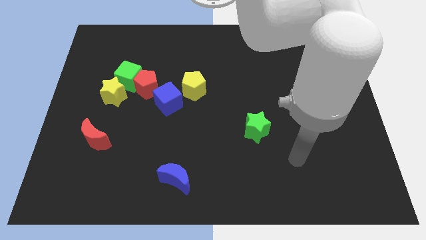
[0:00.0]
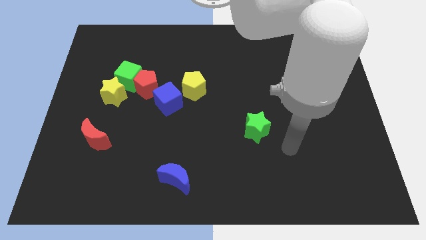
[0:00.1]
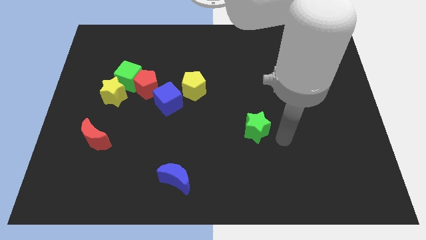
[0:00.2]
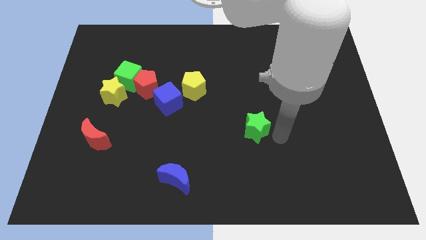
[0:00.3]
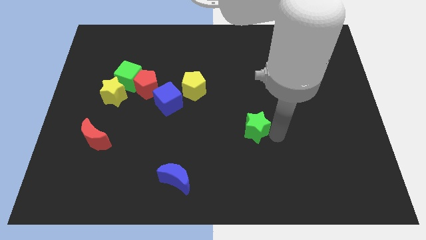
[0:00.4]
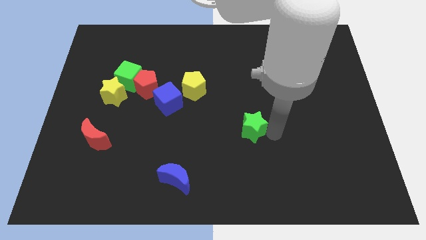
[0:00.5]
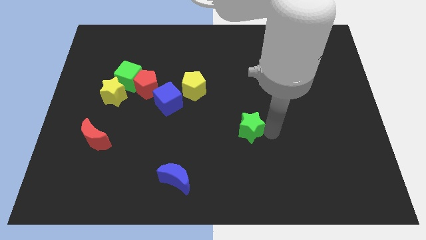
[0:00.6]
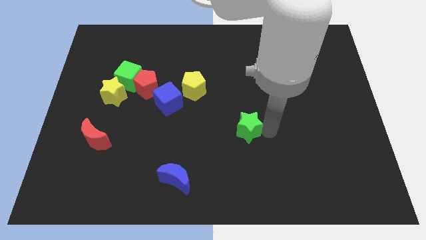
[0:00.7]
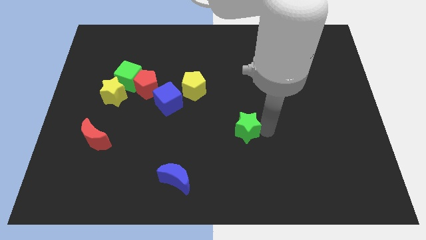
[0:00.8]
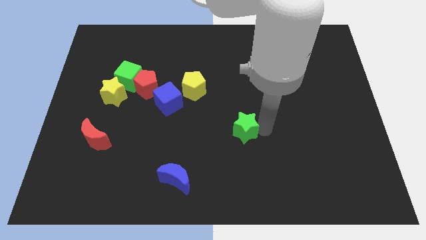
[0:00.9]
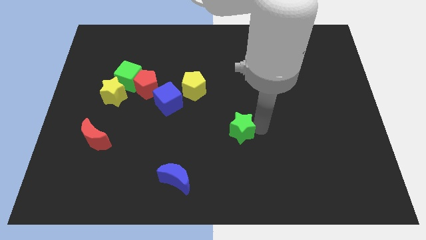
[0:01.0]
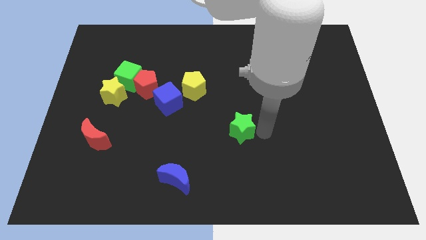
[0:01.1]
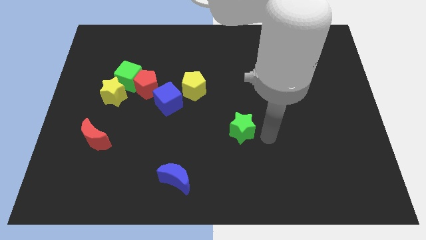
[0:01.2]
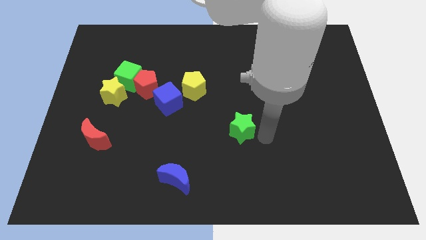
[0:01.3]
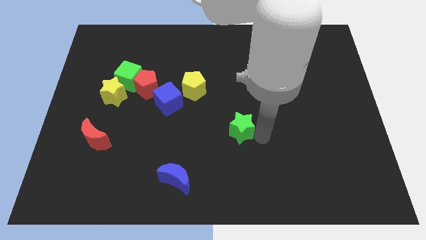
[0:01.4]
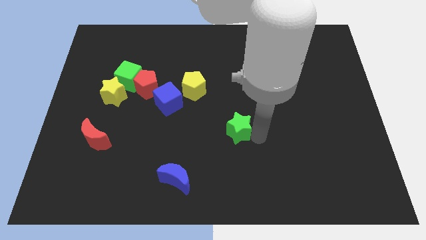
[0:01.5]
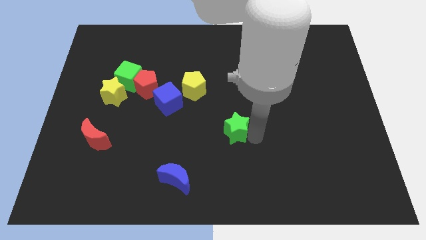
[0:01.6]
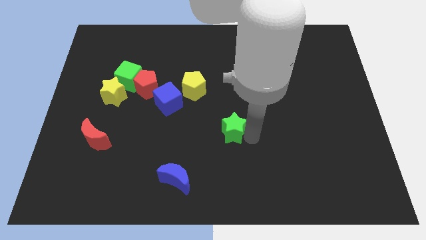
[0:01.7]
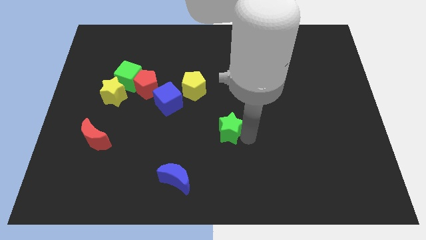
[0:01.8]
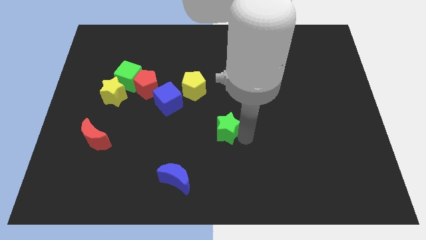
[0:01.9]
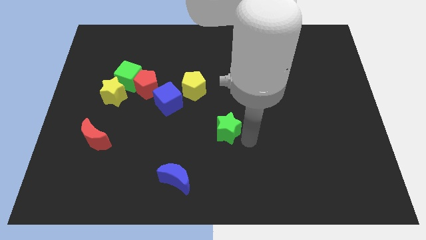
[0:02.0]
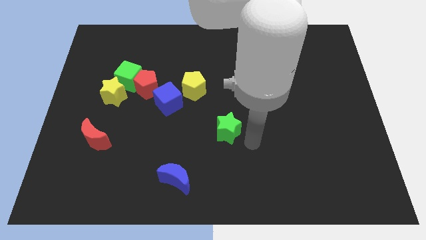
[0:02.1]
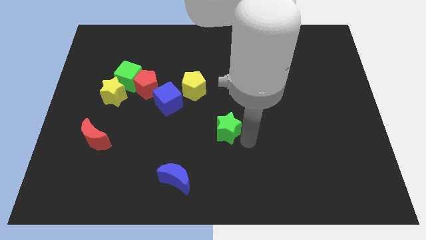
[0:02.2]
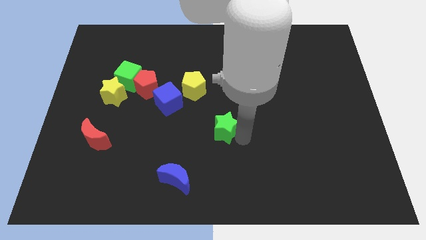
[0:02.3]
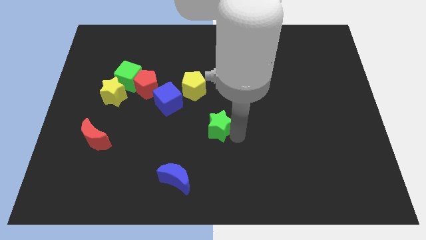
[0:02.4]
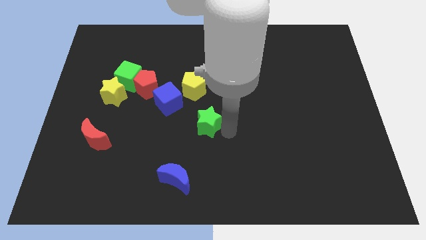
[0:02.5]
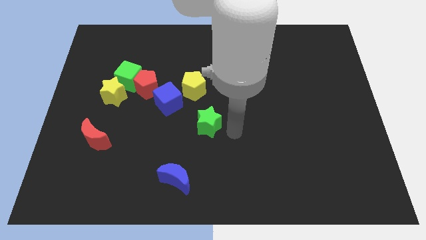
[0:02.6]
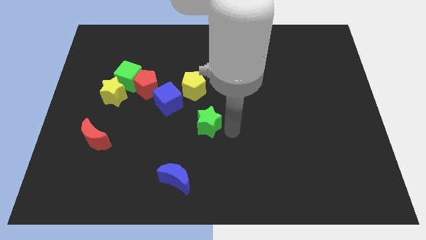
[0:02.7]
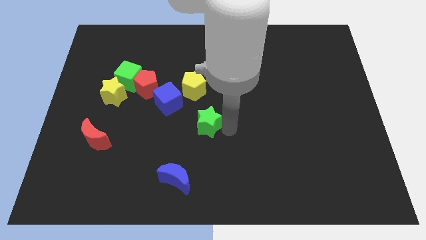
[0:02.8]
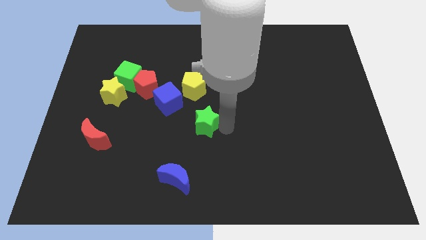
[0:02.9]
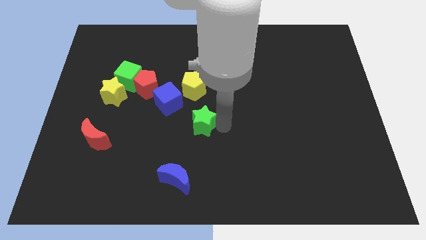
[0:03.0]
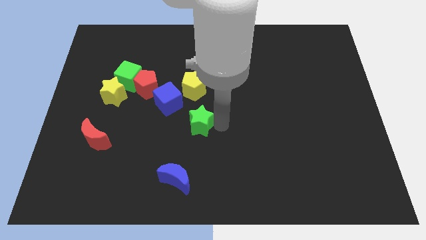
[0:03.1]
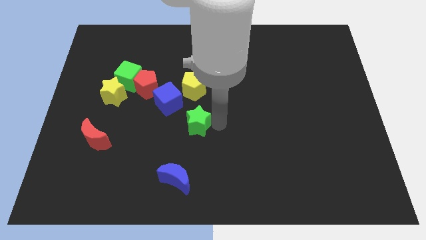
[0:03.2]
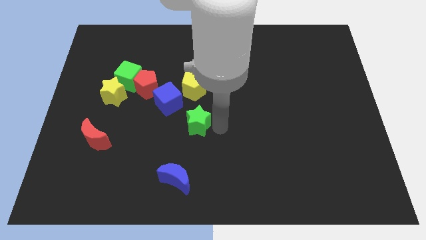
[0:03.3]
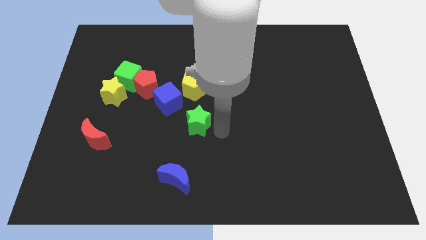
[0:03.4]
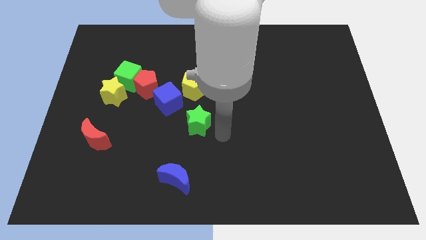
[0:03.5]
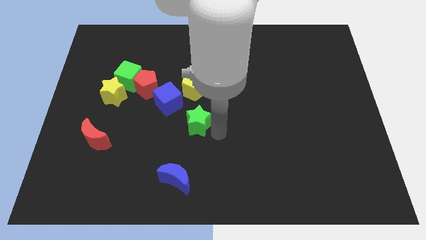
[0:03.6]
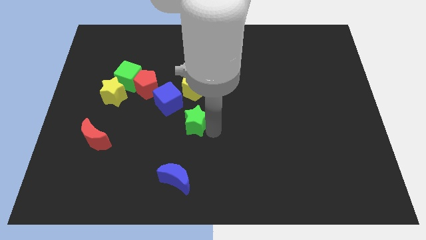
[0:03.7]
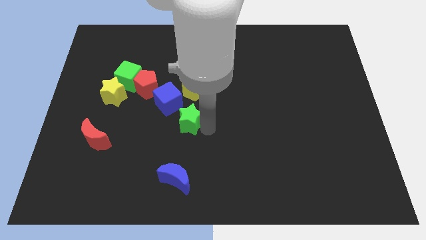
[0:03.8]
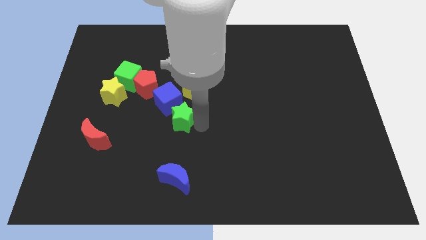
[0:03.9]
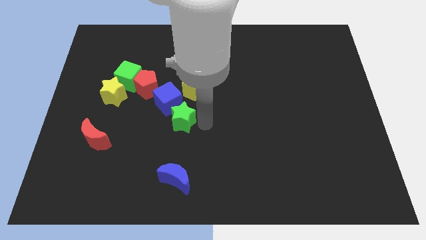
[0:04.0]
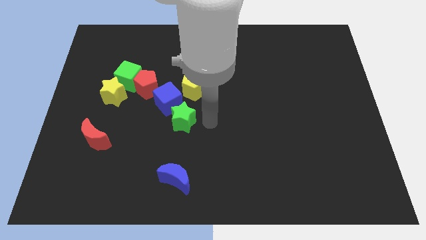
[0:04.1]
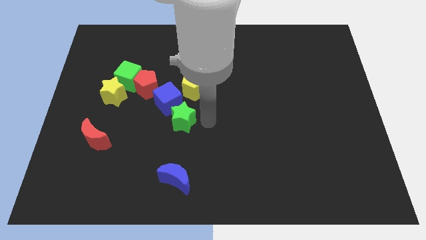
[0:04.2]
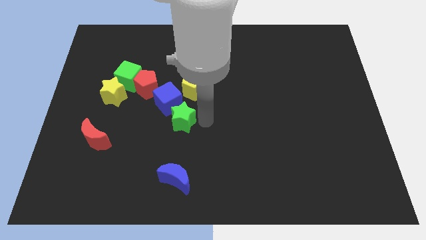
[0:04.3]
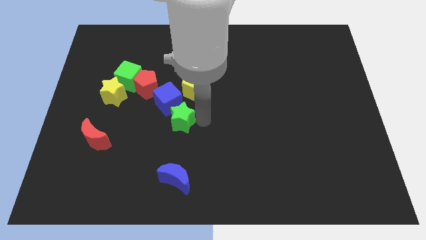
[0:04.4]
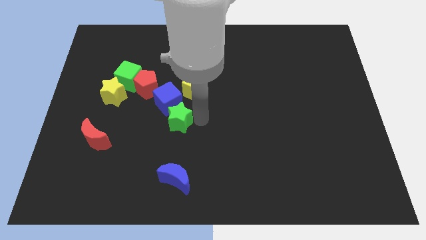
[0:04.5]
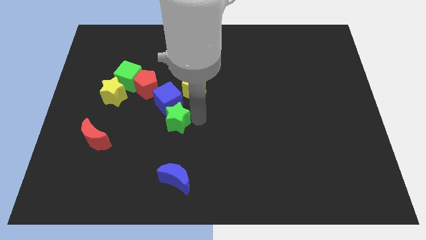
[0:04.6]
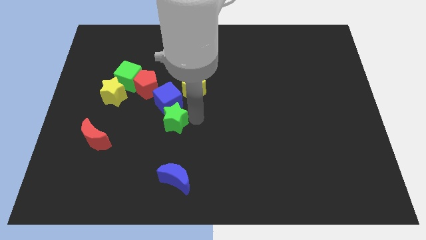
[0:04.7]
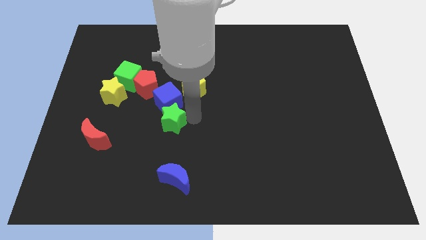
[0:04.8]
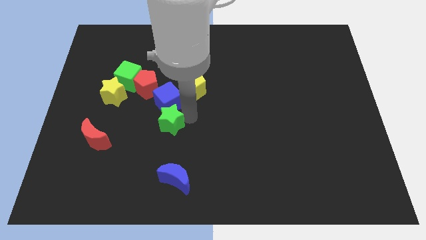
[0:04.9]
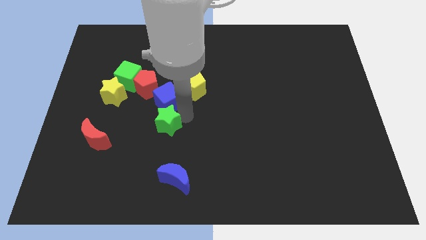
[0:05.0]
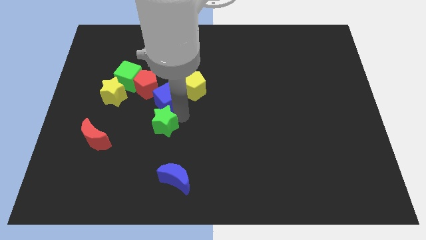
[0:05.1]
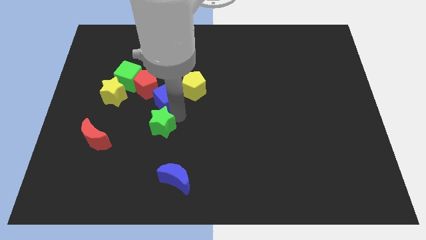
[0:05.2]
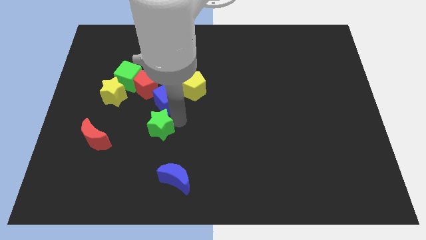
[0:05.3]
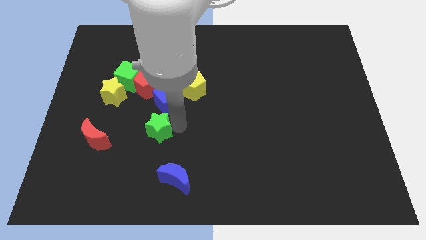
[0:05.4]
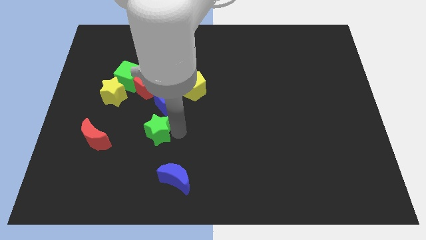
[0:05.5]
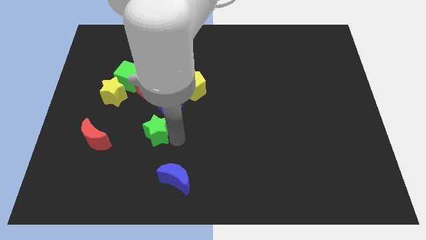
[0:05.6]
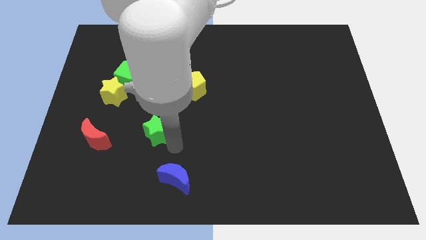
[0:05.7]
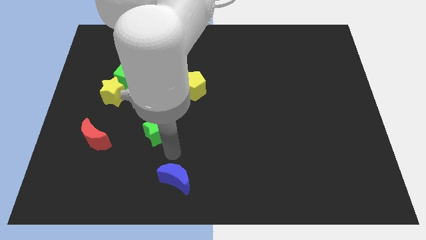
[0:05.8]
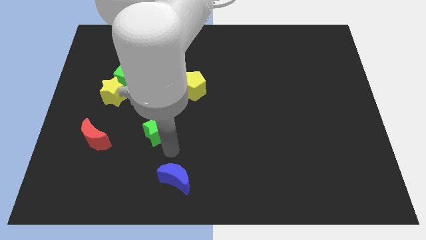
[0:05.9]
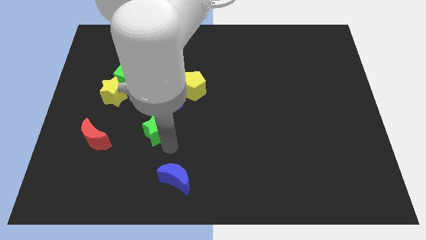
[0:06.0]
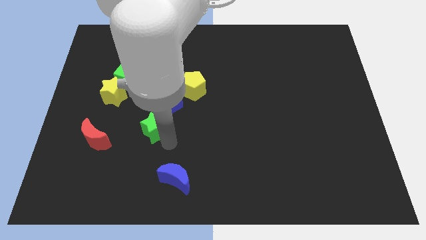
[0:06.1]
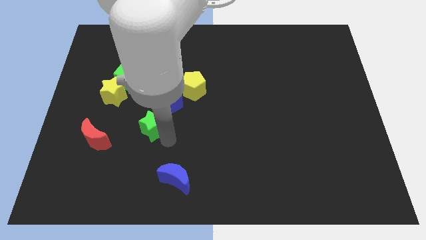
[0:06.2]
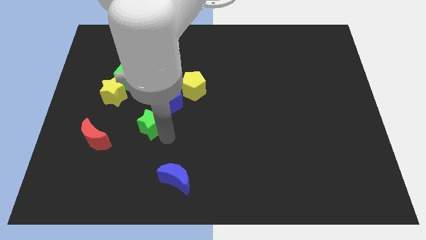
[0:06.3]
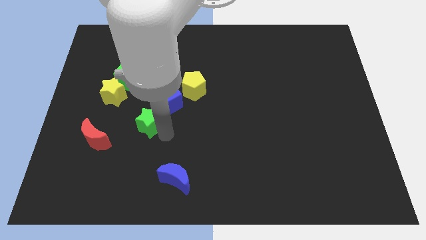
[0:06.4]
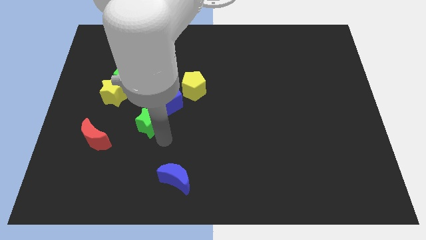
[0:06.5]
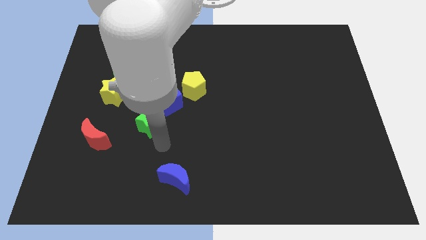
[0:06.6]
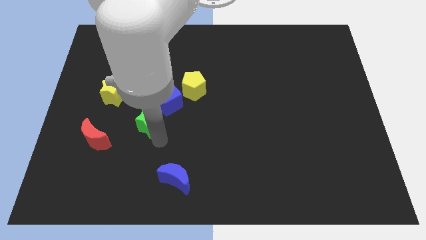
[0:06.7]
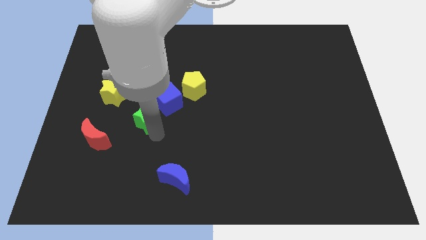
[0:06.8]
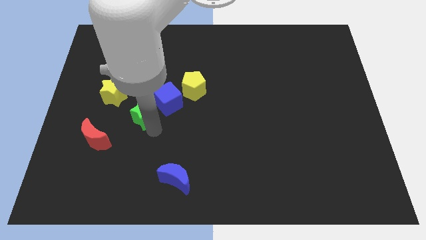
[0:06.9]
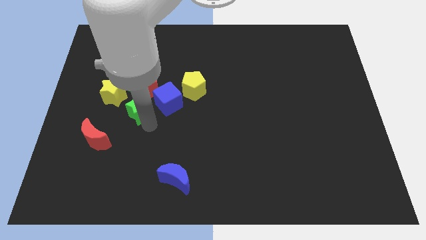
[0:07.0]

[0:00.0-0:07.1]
slide the green star to the bottom right side of the green cube

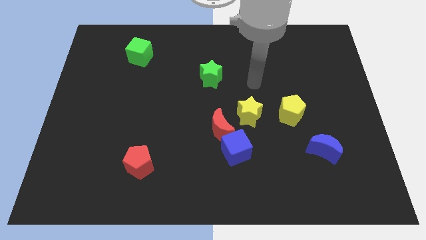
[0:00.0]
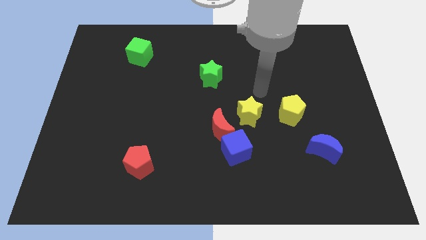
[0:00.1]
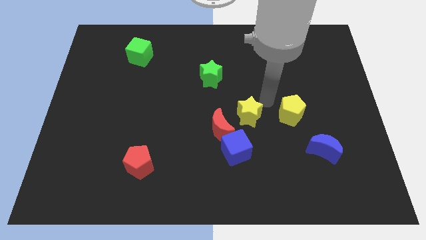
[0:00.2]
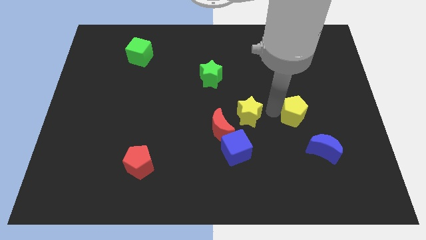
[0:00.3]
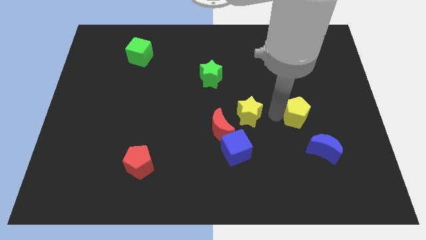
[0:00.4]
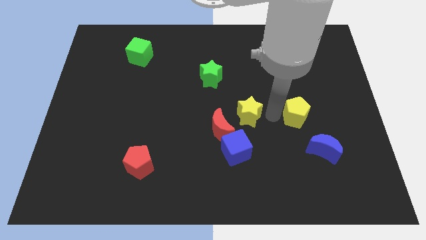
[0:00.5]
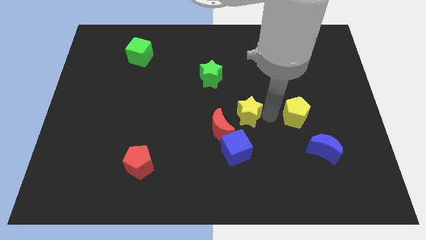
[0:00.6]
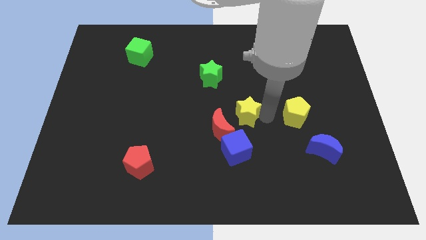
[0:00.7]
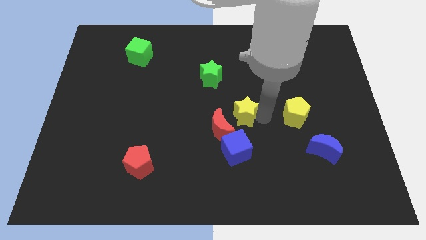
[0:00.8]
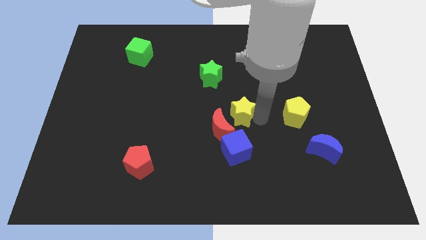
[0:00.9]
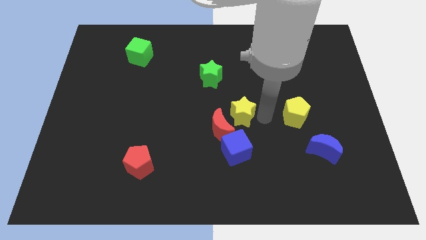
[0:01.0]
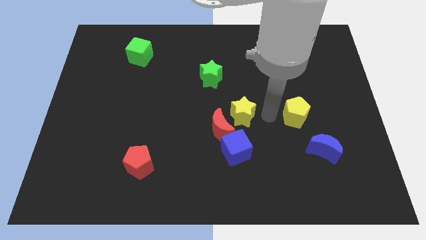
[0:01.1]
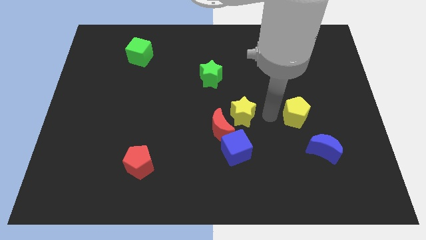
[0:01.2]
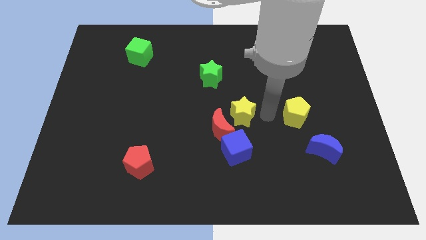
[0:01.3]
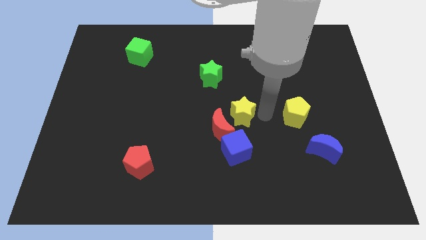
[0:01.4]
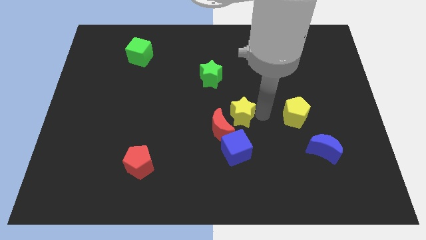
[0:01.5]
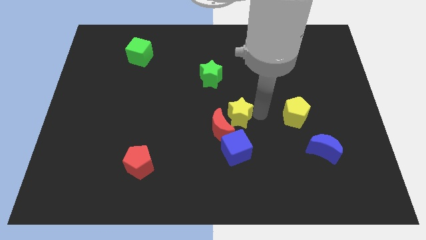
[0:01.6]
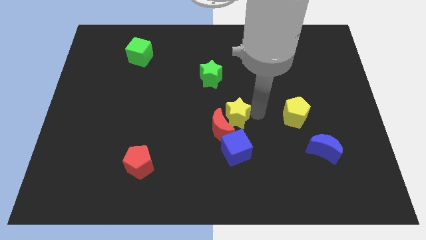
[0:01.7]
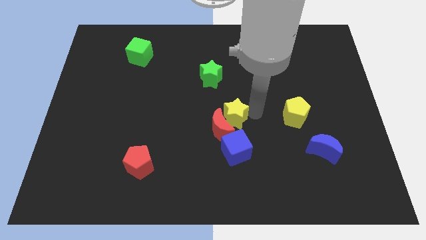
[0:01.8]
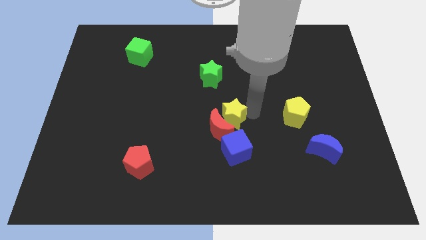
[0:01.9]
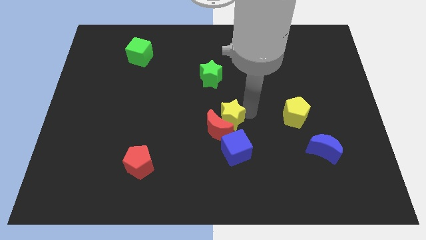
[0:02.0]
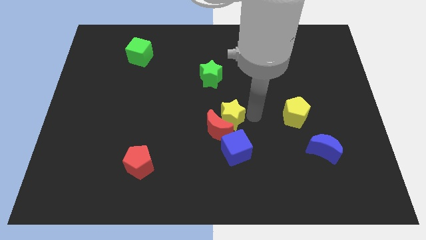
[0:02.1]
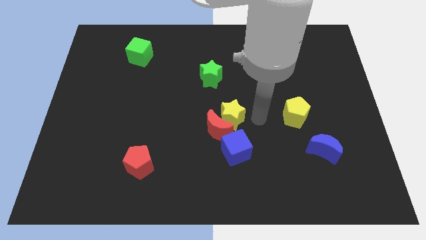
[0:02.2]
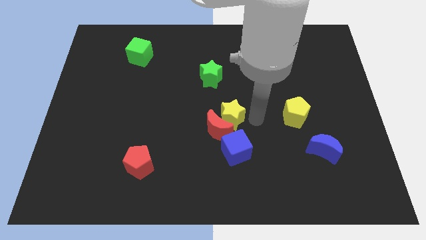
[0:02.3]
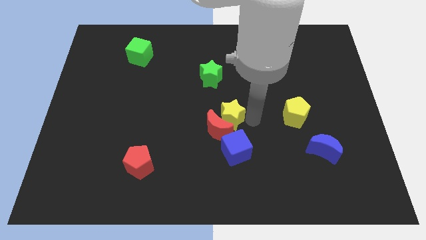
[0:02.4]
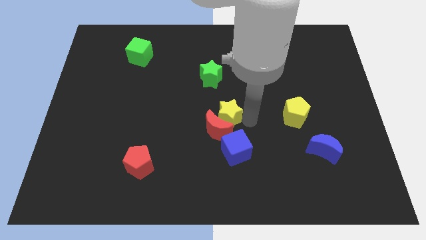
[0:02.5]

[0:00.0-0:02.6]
slide the yellow star to the top left side of the blue cube
